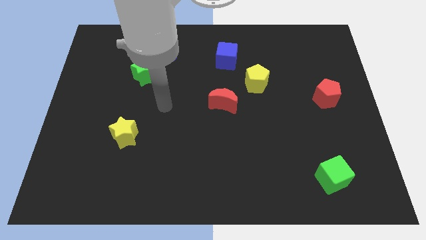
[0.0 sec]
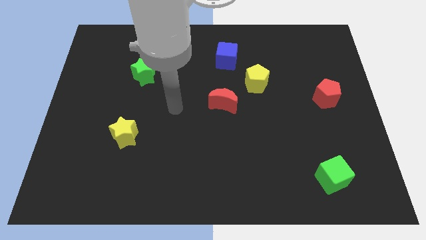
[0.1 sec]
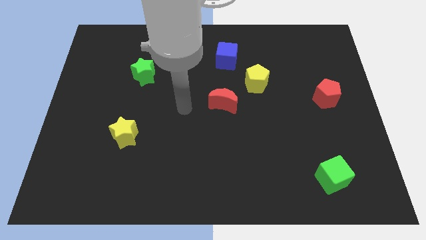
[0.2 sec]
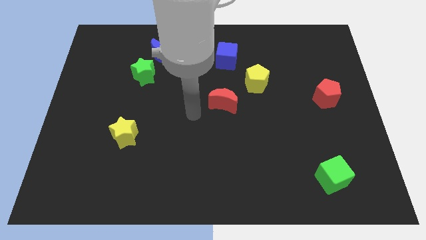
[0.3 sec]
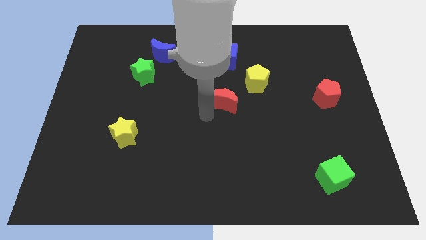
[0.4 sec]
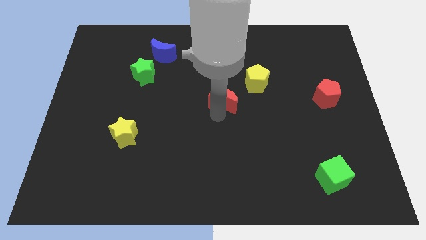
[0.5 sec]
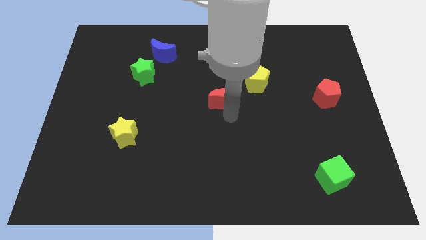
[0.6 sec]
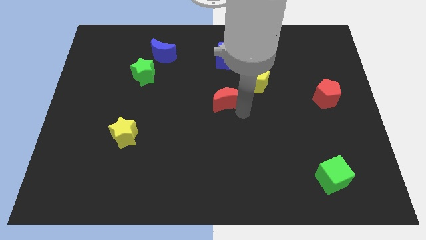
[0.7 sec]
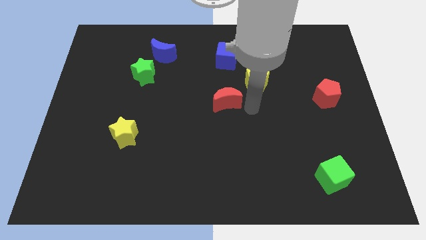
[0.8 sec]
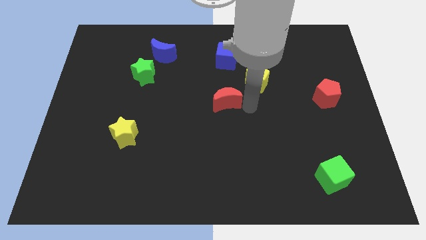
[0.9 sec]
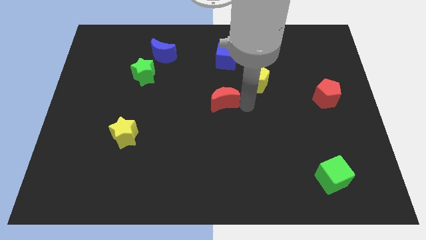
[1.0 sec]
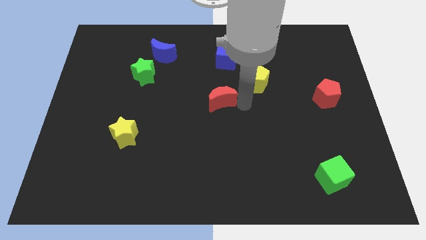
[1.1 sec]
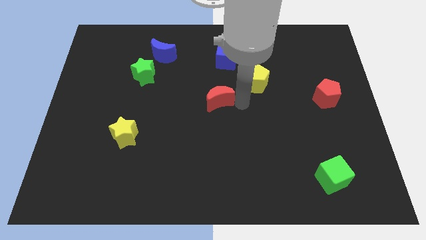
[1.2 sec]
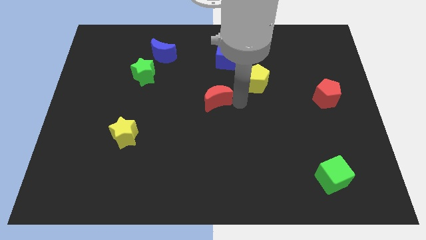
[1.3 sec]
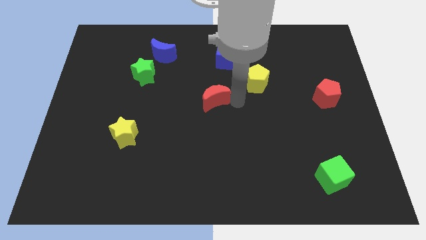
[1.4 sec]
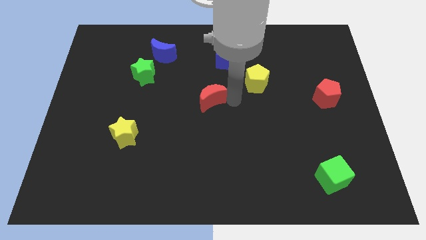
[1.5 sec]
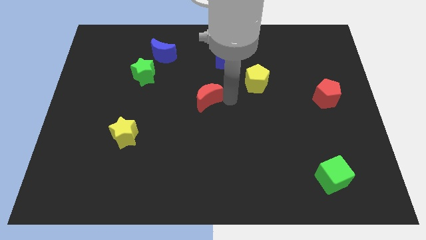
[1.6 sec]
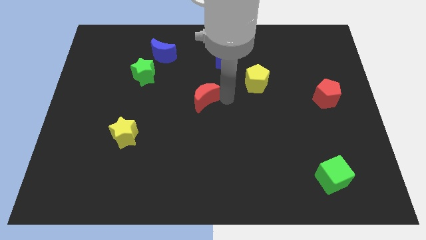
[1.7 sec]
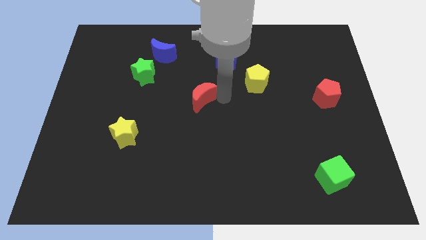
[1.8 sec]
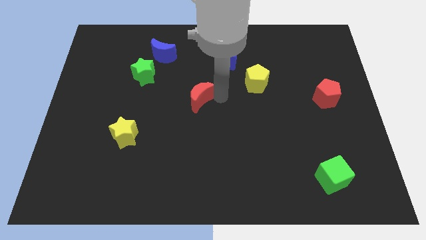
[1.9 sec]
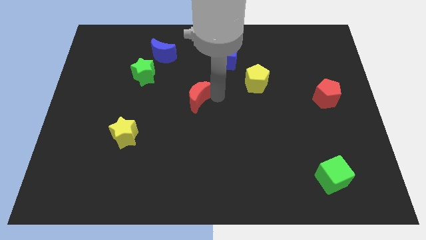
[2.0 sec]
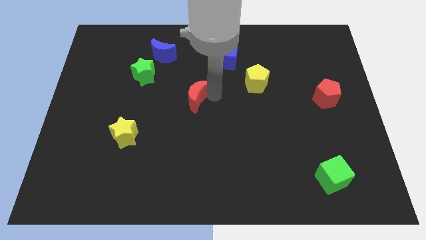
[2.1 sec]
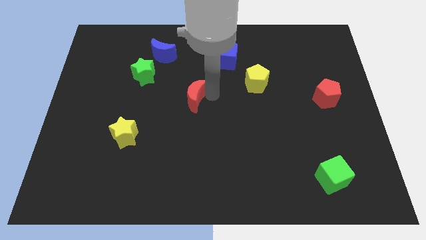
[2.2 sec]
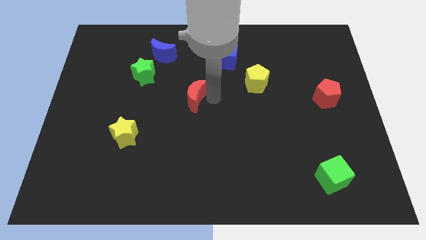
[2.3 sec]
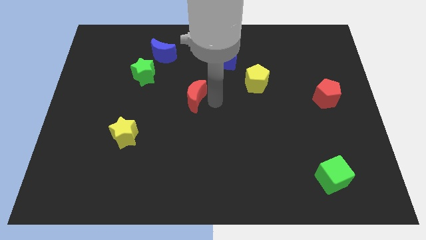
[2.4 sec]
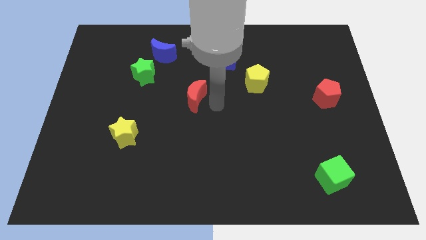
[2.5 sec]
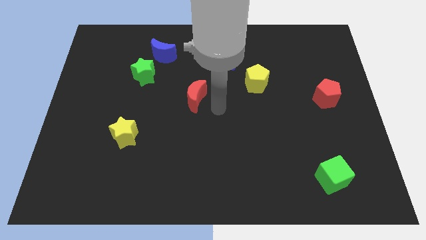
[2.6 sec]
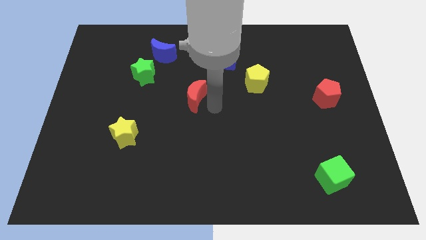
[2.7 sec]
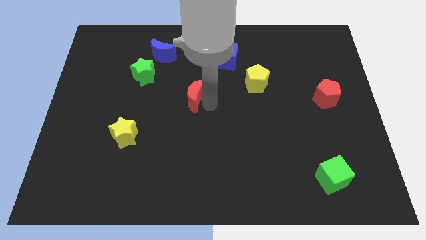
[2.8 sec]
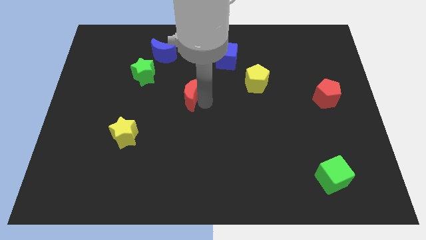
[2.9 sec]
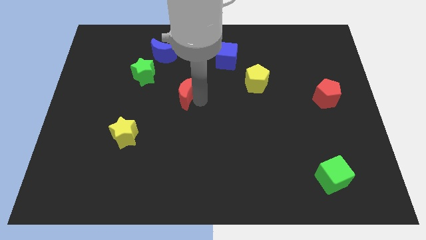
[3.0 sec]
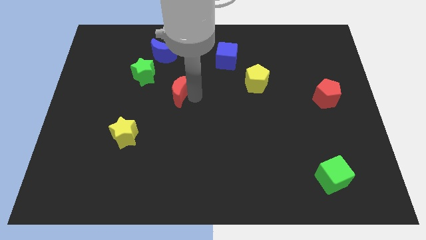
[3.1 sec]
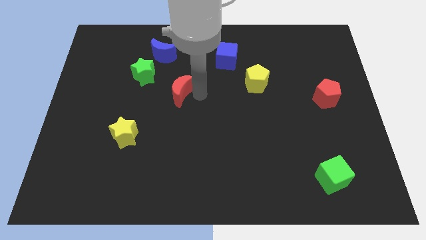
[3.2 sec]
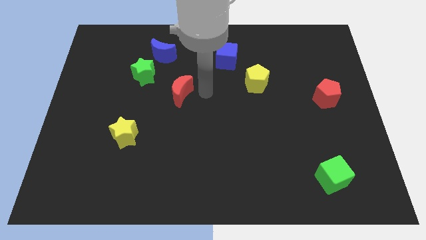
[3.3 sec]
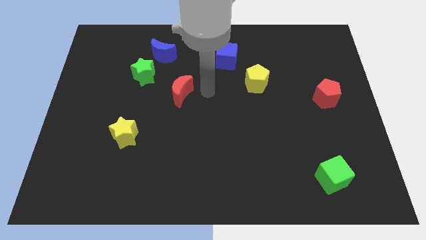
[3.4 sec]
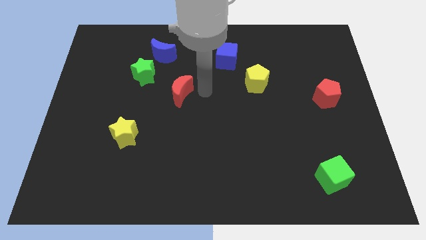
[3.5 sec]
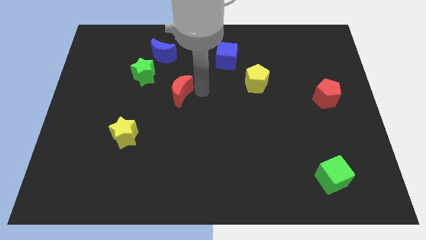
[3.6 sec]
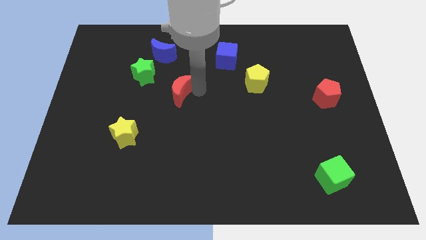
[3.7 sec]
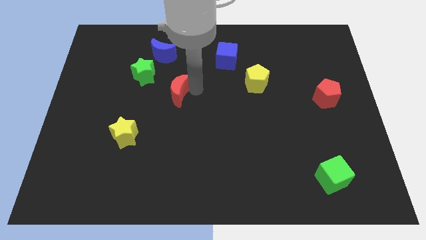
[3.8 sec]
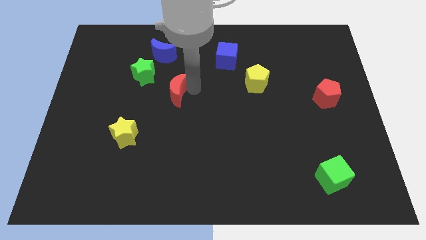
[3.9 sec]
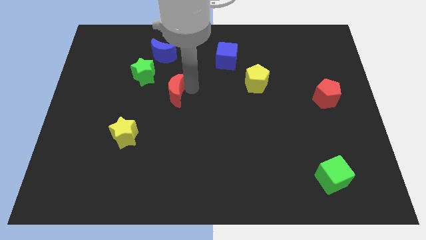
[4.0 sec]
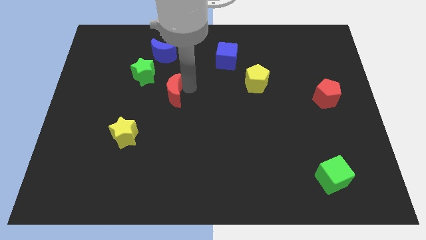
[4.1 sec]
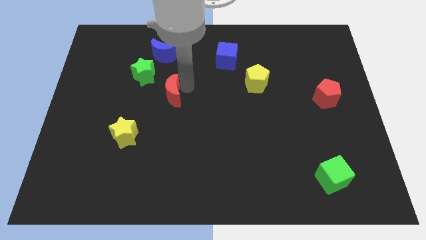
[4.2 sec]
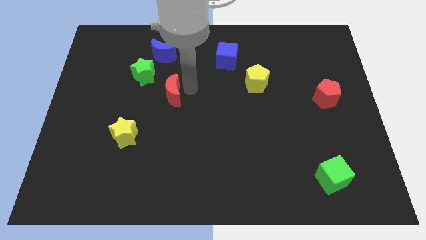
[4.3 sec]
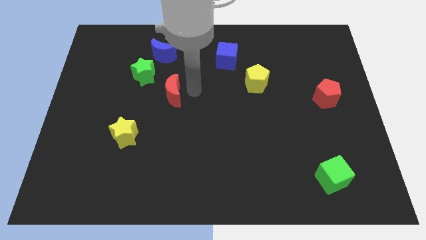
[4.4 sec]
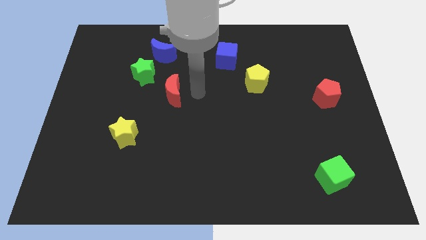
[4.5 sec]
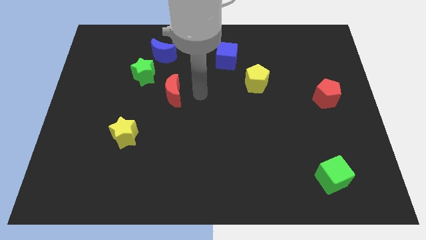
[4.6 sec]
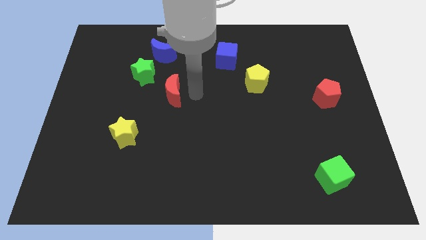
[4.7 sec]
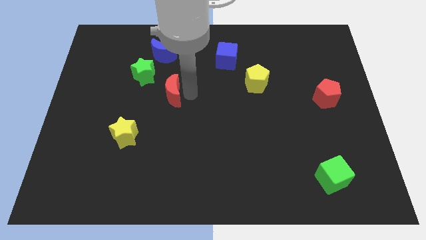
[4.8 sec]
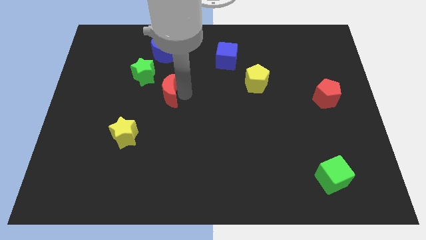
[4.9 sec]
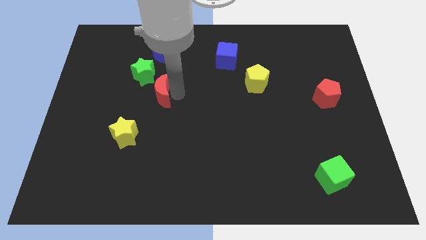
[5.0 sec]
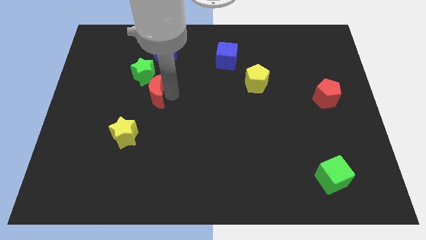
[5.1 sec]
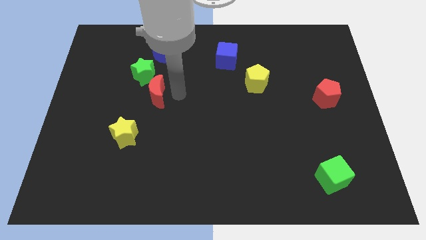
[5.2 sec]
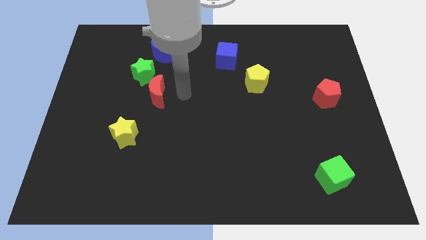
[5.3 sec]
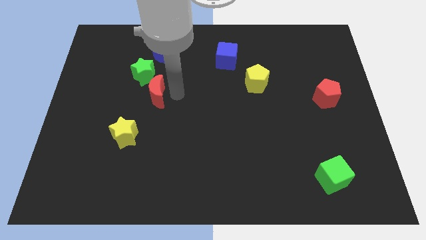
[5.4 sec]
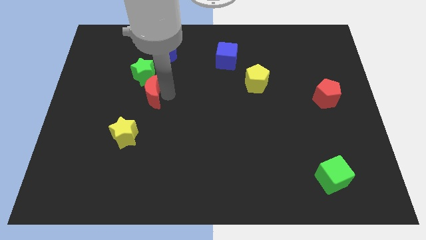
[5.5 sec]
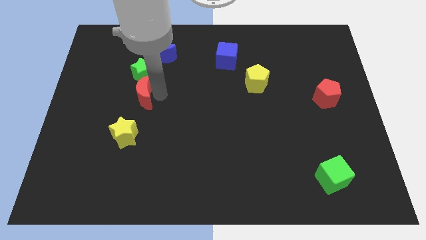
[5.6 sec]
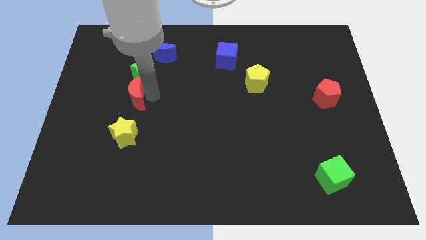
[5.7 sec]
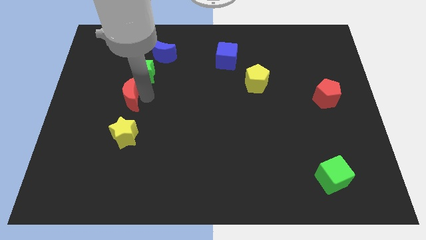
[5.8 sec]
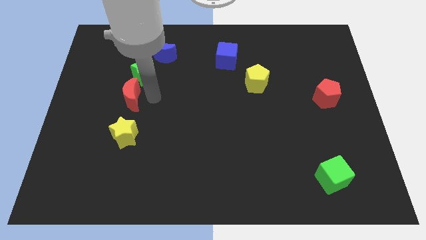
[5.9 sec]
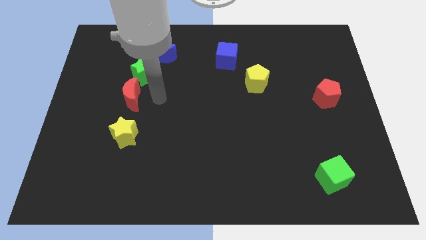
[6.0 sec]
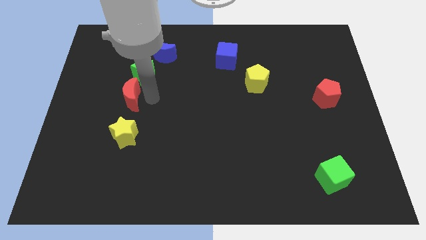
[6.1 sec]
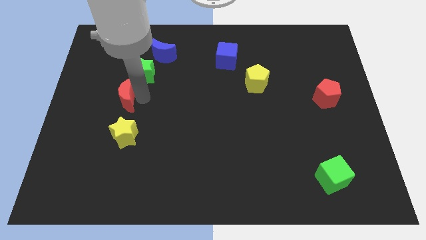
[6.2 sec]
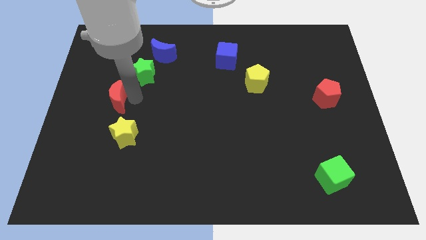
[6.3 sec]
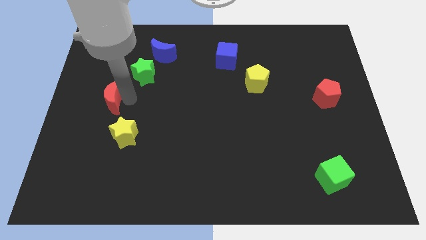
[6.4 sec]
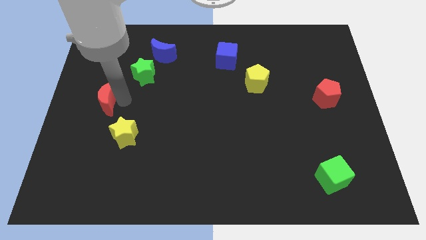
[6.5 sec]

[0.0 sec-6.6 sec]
push the red moon to the center left
